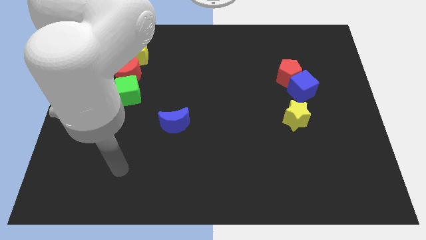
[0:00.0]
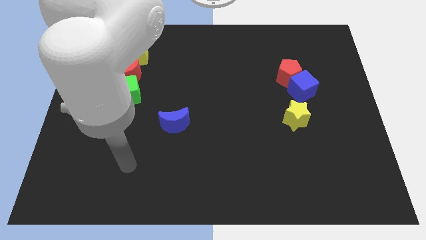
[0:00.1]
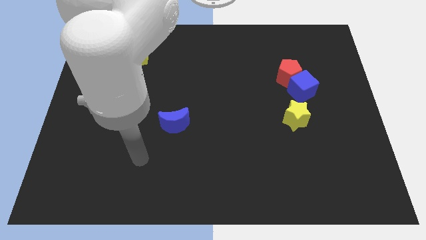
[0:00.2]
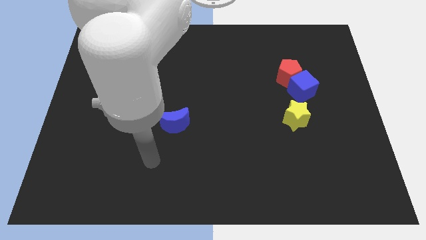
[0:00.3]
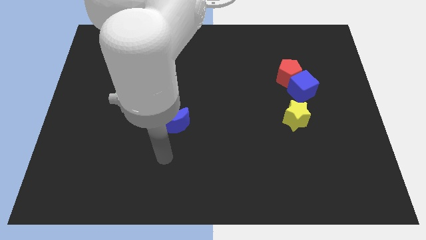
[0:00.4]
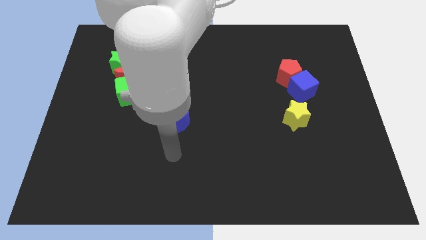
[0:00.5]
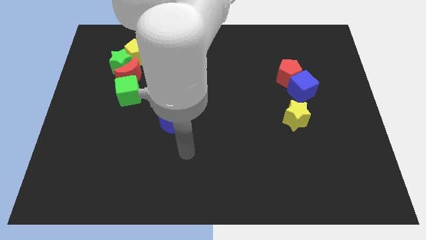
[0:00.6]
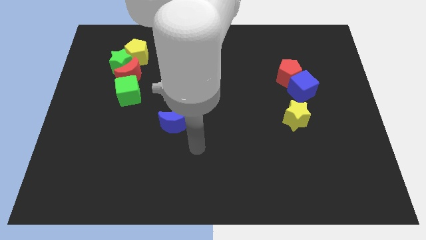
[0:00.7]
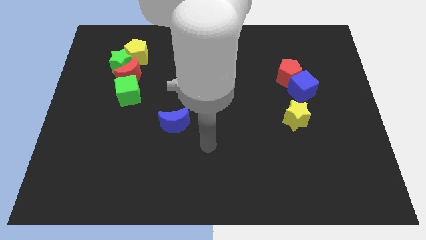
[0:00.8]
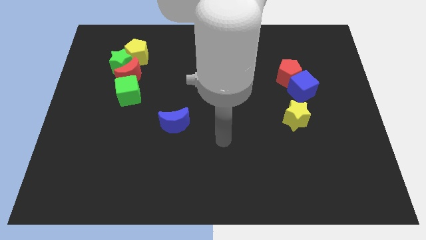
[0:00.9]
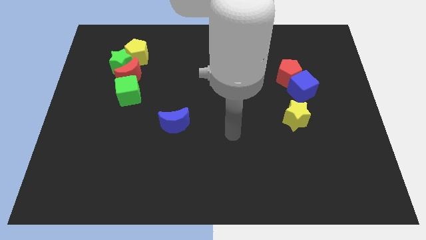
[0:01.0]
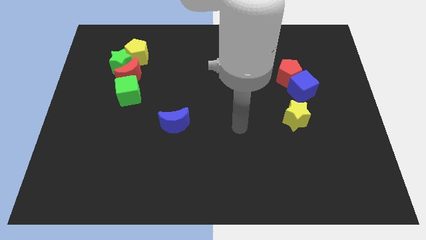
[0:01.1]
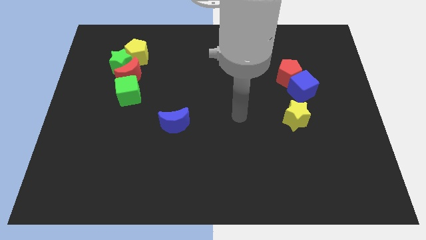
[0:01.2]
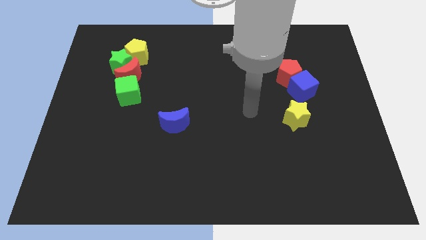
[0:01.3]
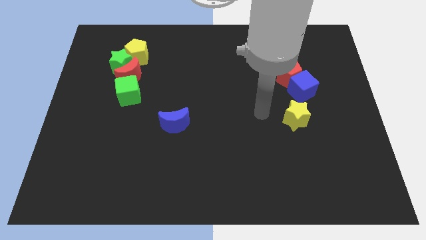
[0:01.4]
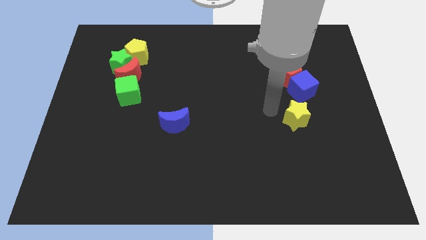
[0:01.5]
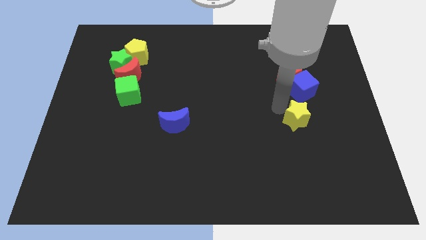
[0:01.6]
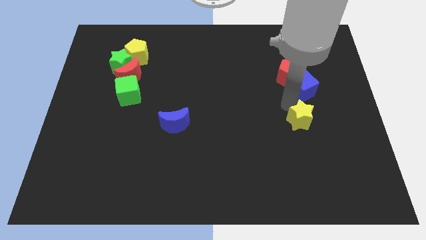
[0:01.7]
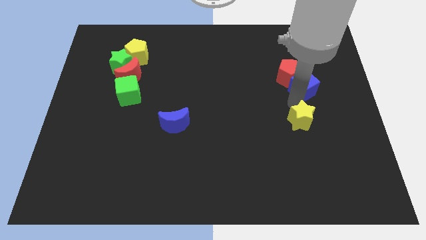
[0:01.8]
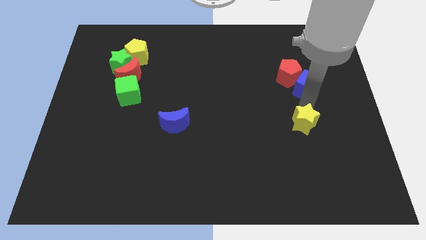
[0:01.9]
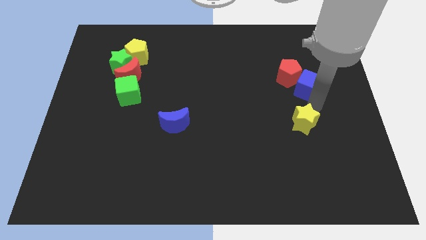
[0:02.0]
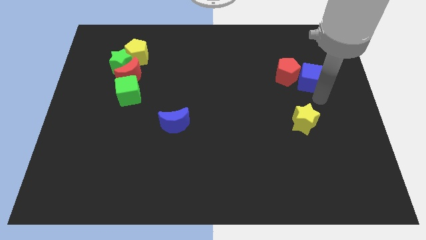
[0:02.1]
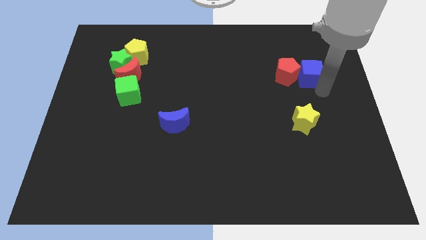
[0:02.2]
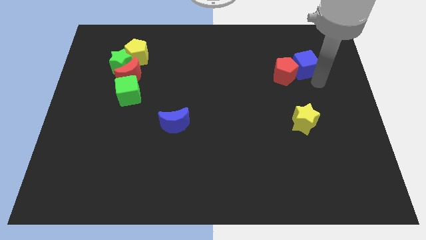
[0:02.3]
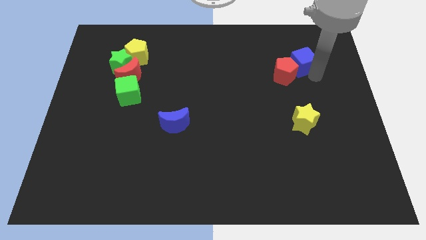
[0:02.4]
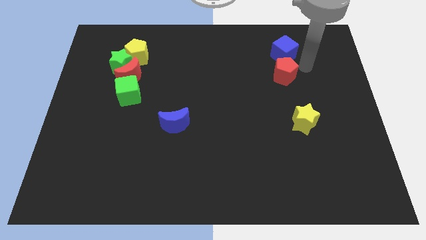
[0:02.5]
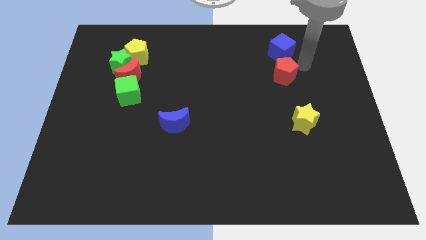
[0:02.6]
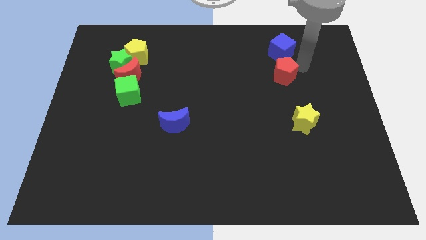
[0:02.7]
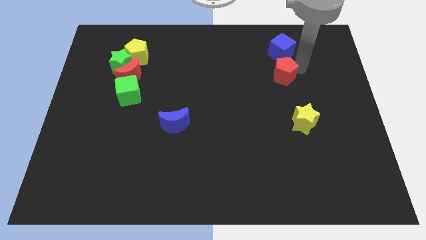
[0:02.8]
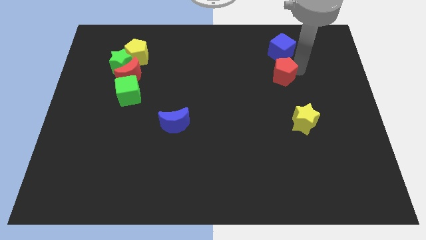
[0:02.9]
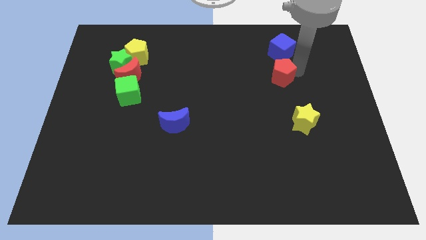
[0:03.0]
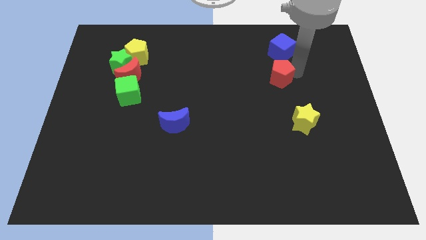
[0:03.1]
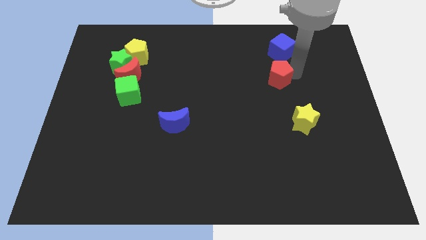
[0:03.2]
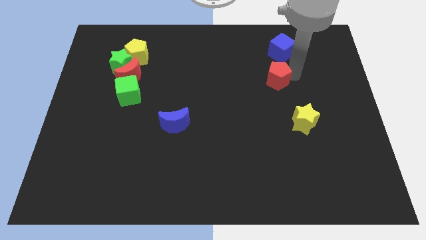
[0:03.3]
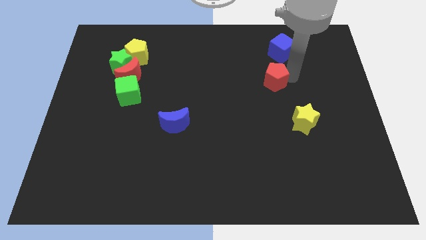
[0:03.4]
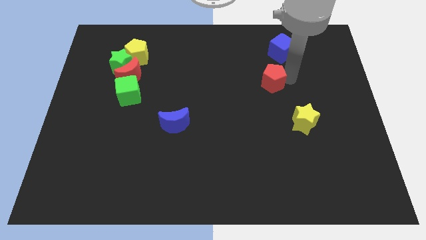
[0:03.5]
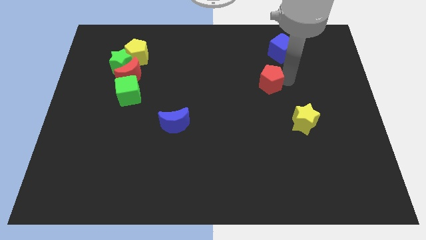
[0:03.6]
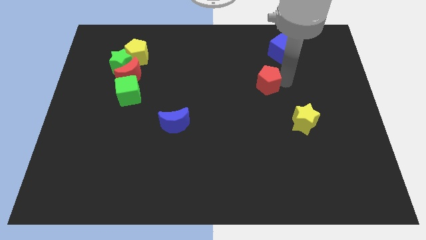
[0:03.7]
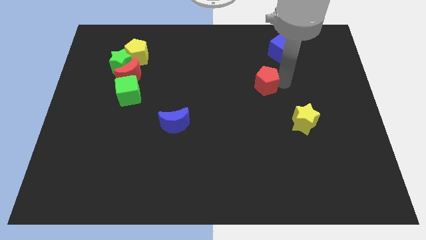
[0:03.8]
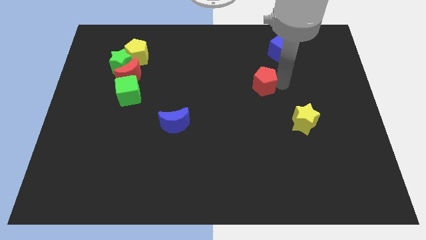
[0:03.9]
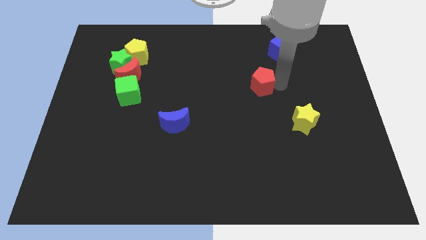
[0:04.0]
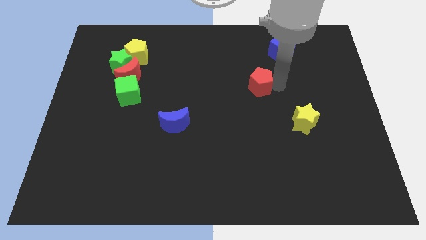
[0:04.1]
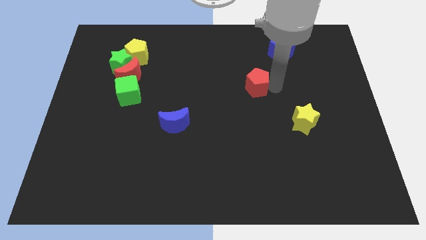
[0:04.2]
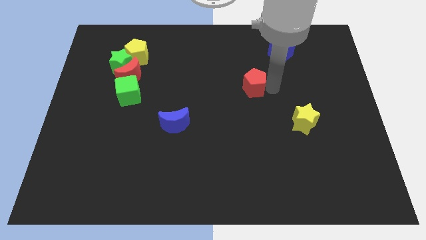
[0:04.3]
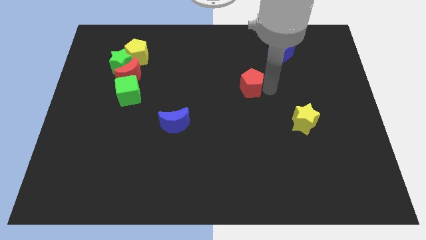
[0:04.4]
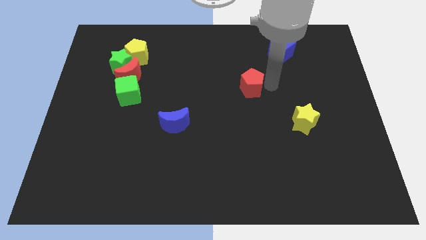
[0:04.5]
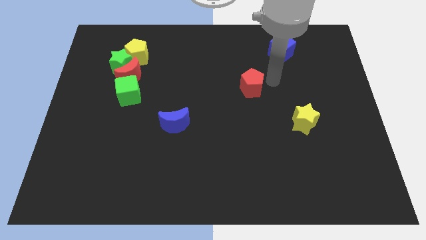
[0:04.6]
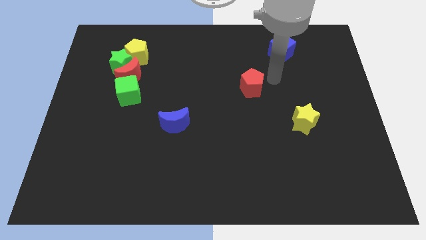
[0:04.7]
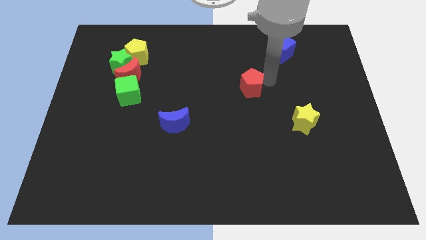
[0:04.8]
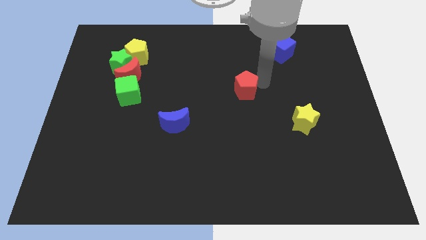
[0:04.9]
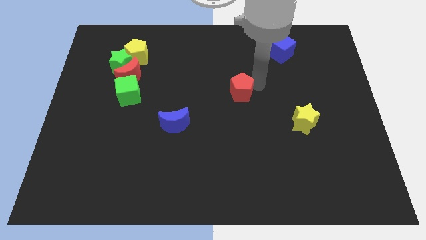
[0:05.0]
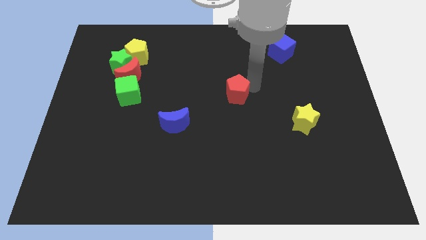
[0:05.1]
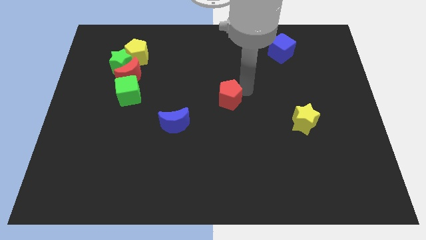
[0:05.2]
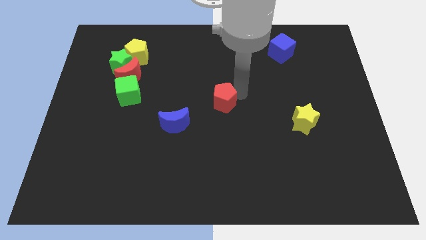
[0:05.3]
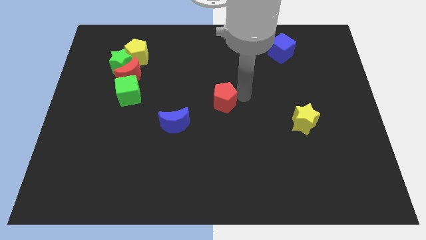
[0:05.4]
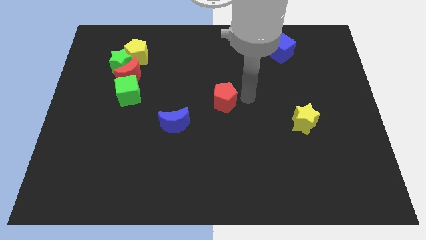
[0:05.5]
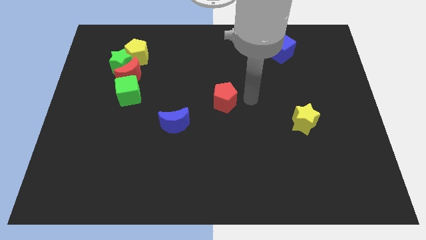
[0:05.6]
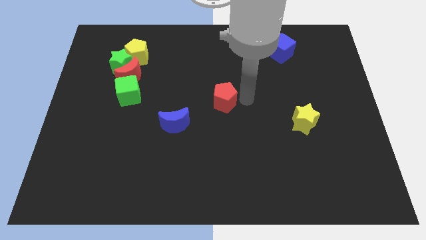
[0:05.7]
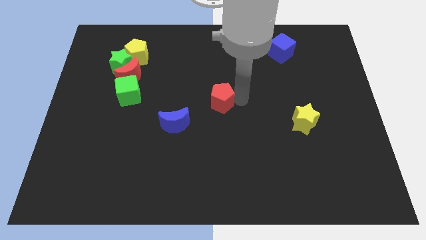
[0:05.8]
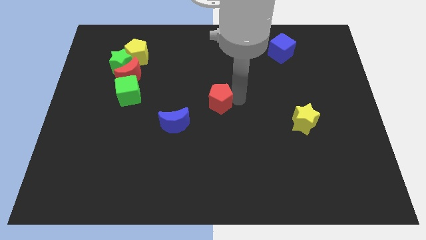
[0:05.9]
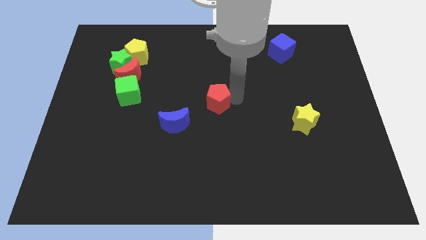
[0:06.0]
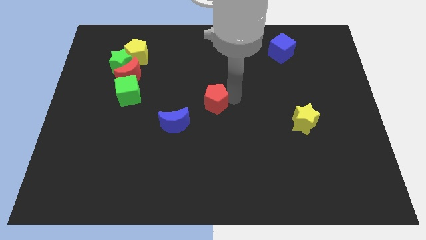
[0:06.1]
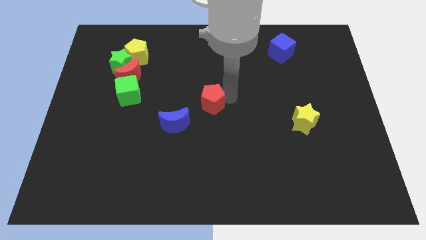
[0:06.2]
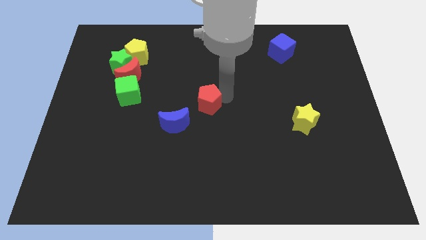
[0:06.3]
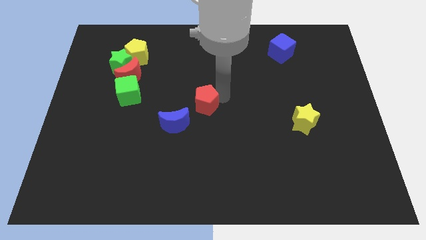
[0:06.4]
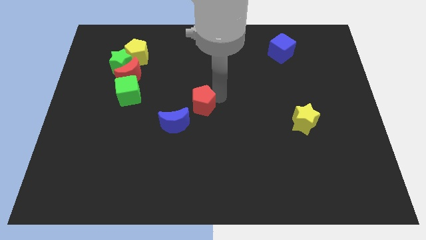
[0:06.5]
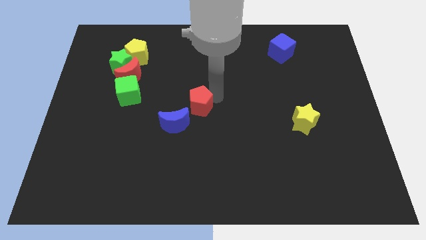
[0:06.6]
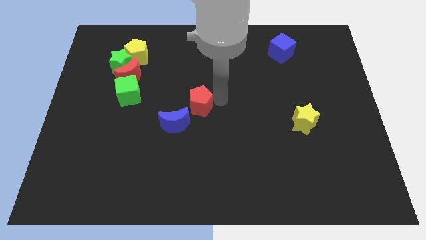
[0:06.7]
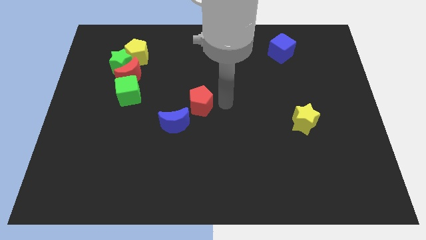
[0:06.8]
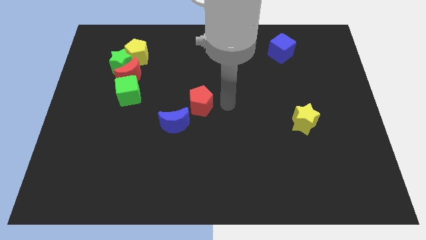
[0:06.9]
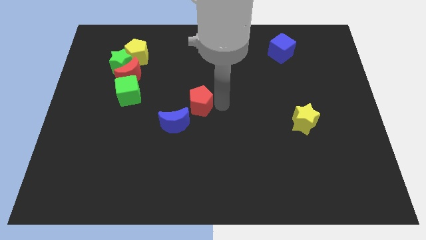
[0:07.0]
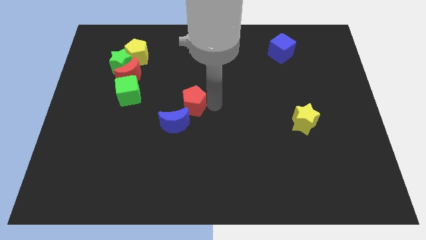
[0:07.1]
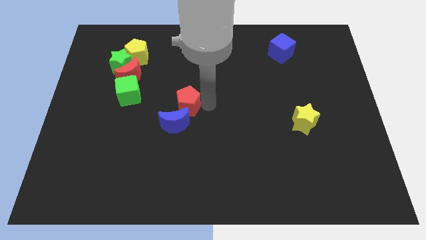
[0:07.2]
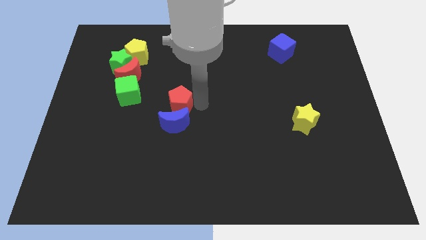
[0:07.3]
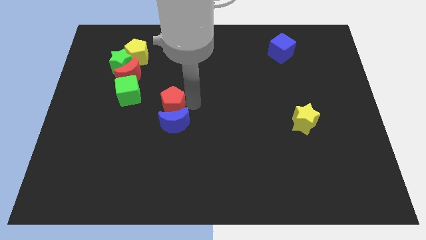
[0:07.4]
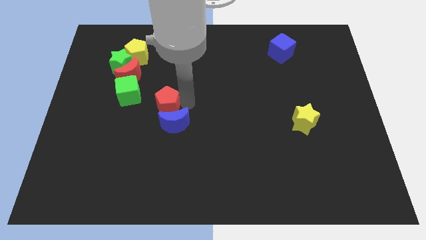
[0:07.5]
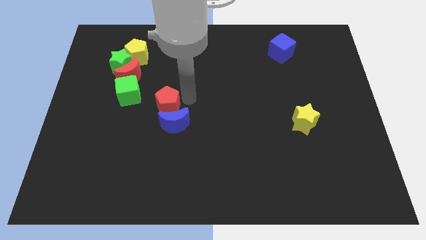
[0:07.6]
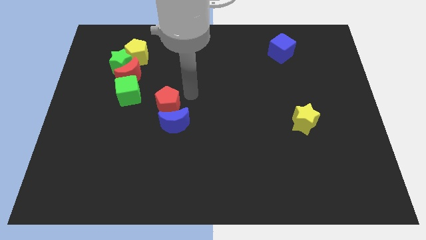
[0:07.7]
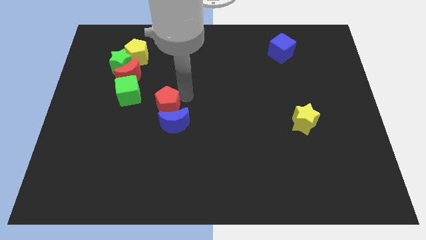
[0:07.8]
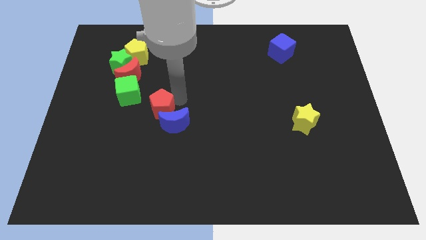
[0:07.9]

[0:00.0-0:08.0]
push the red pentagon left of the blue moon
